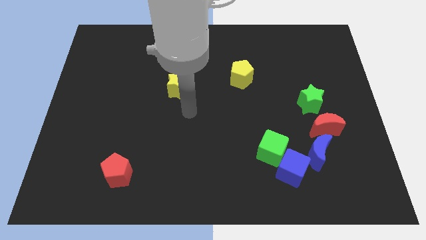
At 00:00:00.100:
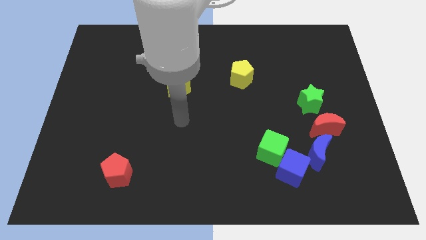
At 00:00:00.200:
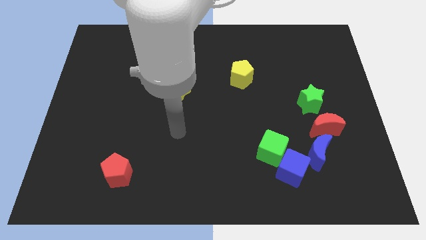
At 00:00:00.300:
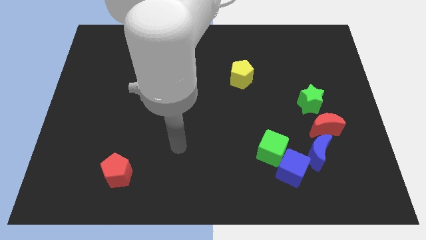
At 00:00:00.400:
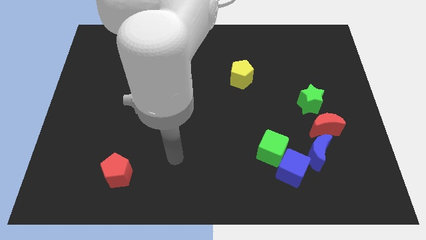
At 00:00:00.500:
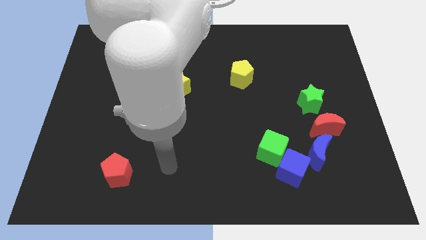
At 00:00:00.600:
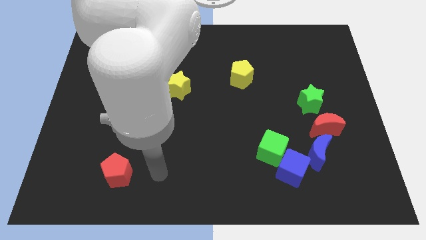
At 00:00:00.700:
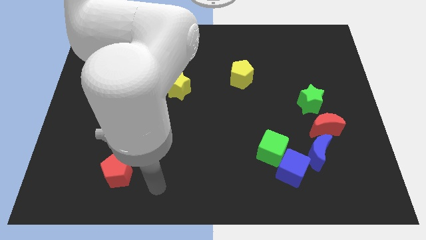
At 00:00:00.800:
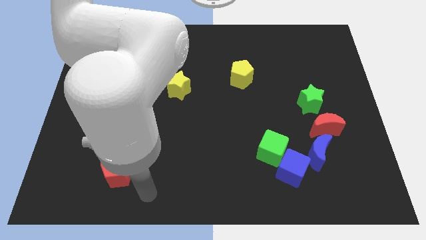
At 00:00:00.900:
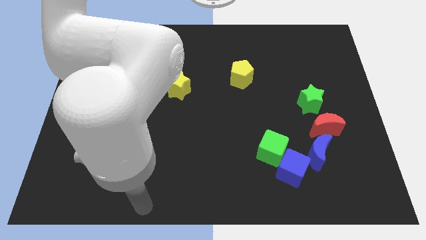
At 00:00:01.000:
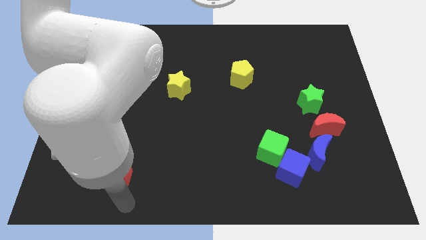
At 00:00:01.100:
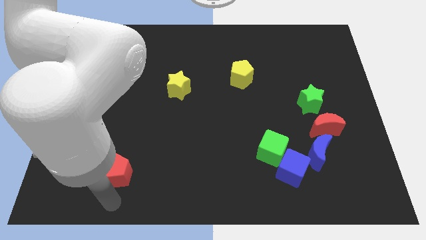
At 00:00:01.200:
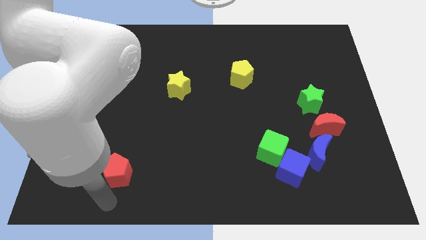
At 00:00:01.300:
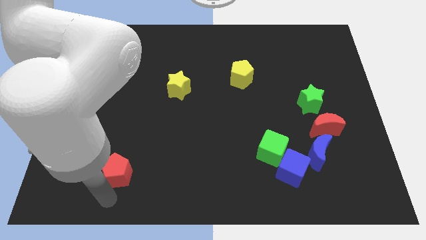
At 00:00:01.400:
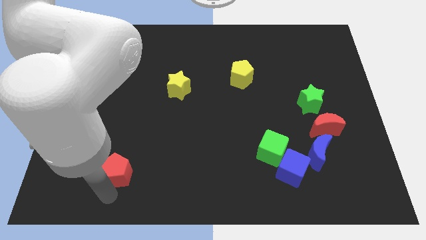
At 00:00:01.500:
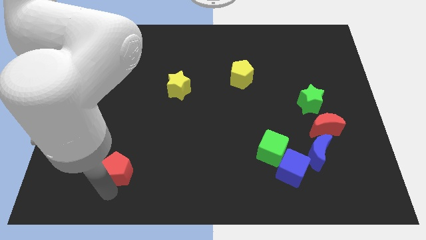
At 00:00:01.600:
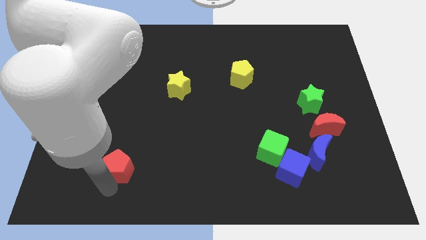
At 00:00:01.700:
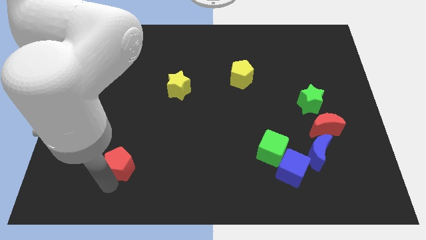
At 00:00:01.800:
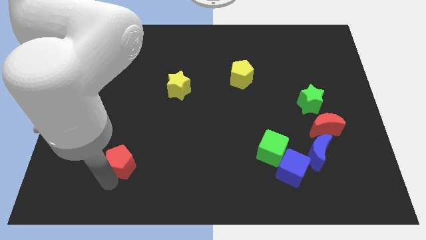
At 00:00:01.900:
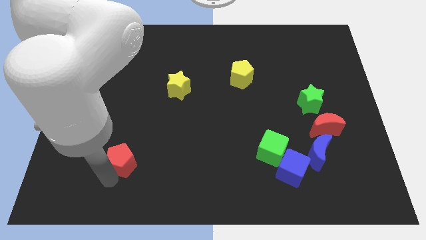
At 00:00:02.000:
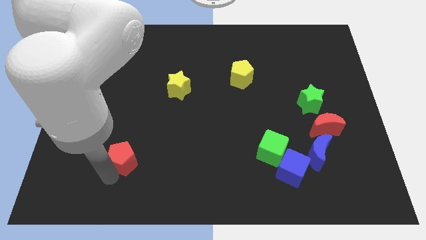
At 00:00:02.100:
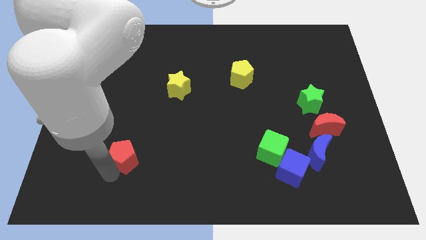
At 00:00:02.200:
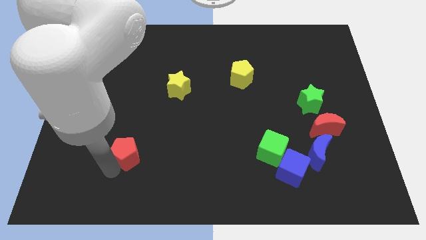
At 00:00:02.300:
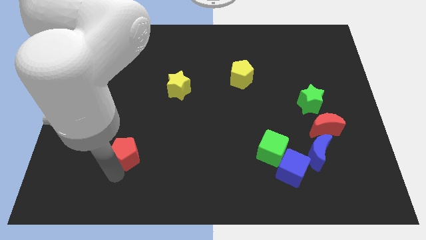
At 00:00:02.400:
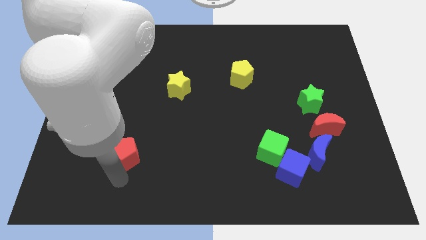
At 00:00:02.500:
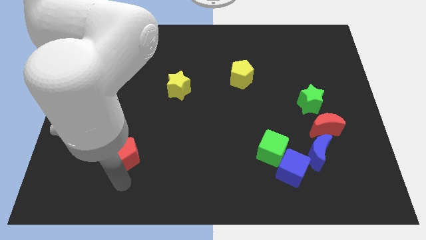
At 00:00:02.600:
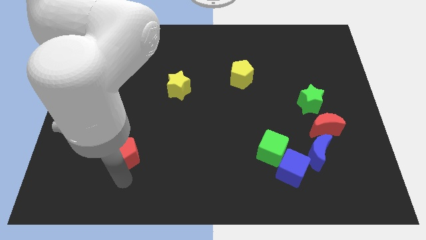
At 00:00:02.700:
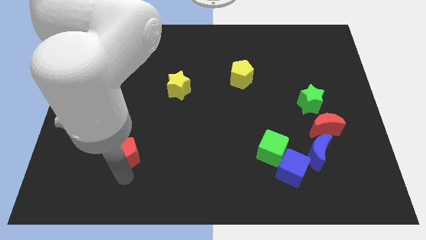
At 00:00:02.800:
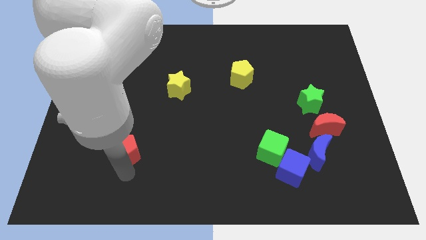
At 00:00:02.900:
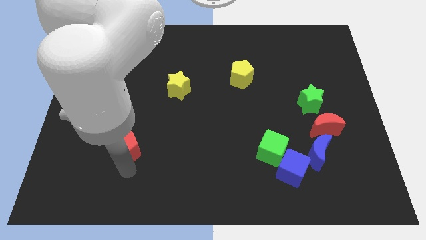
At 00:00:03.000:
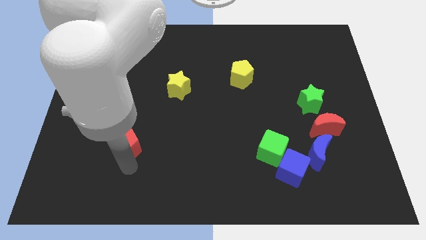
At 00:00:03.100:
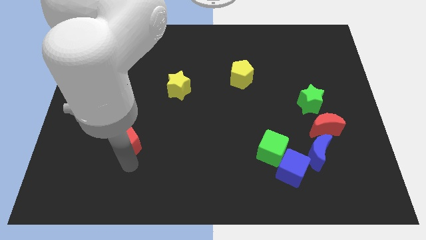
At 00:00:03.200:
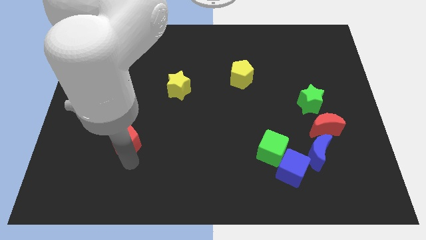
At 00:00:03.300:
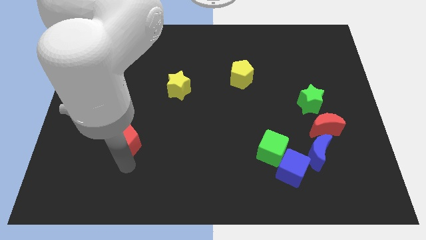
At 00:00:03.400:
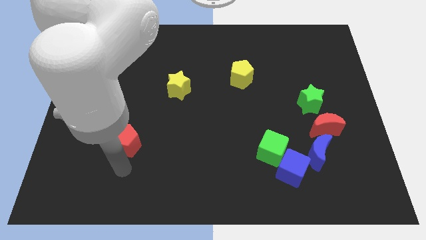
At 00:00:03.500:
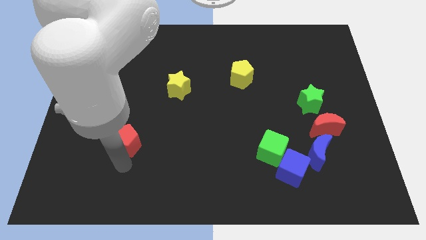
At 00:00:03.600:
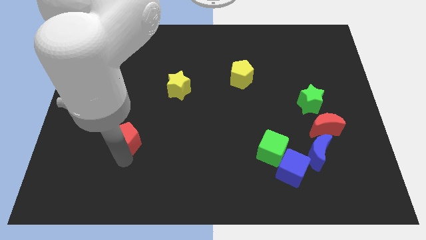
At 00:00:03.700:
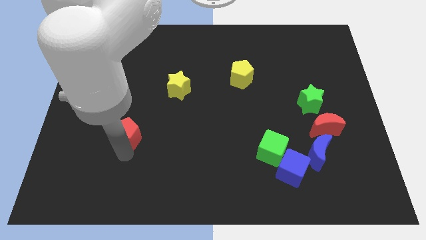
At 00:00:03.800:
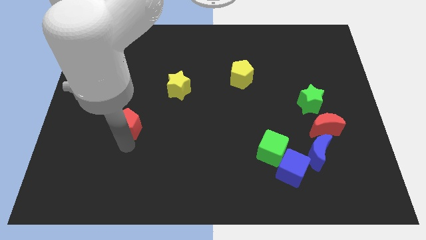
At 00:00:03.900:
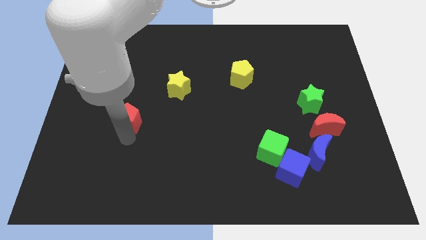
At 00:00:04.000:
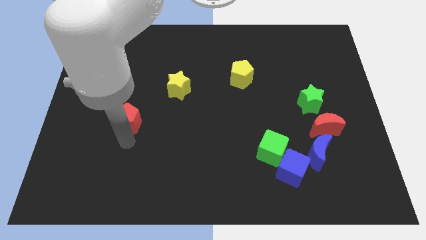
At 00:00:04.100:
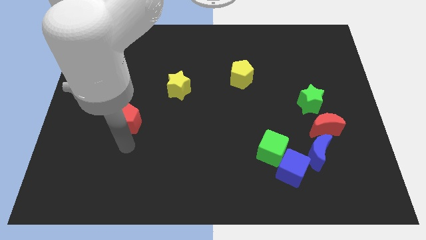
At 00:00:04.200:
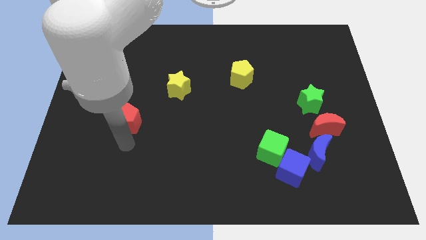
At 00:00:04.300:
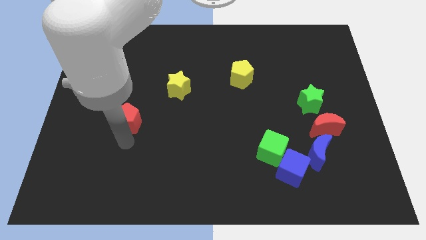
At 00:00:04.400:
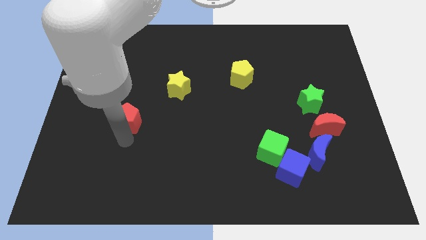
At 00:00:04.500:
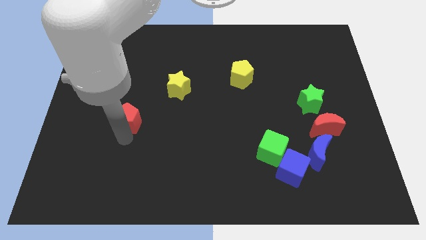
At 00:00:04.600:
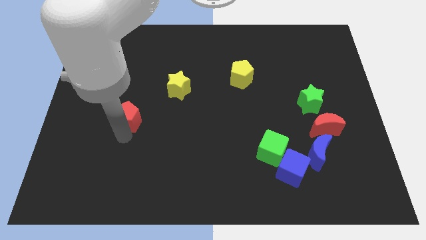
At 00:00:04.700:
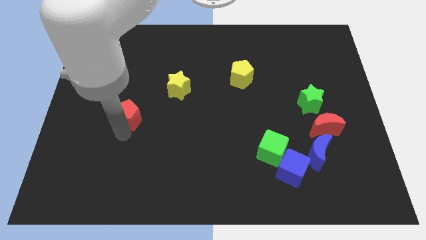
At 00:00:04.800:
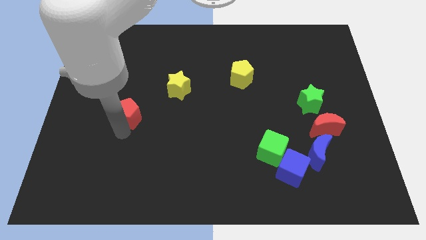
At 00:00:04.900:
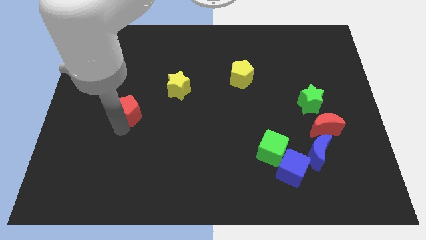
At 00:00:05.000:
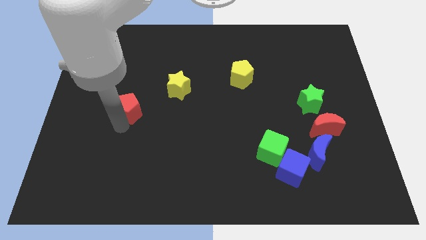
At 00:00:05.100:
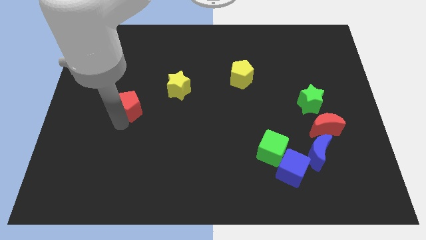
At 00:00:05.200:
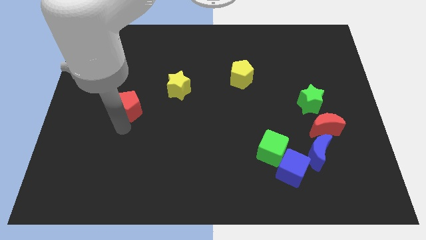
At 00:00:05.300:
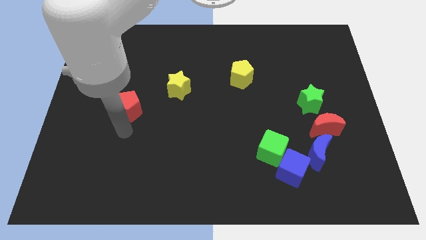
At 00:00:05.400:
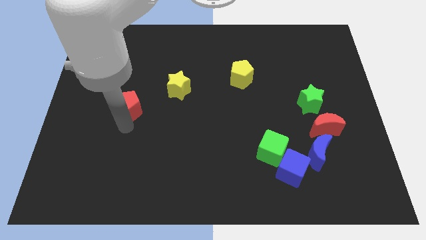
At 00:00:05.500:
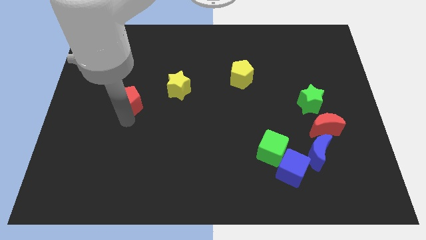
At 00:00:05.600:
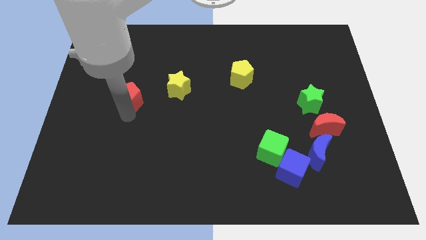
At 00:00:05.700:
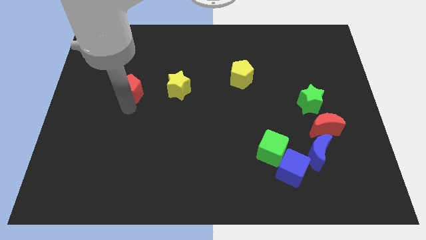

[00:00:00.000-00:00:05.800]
slide the red pentagon upwards

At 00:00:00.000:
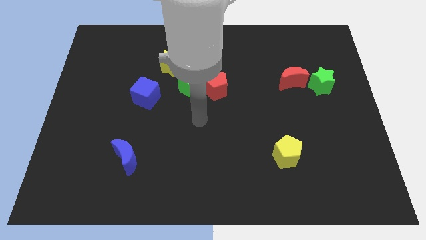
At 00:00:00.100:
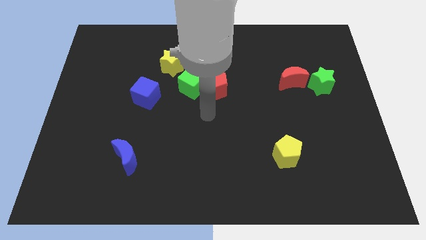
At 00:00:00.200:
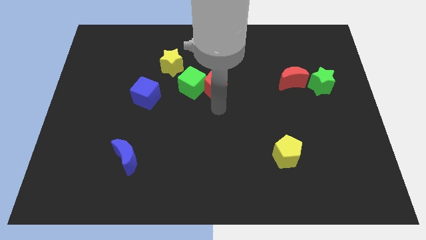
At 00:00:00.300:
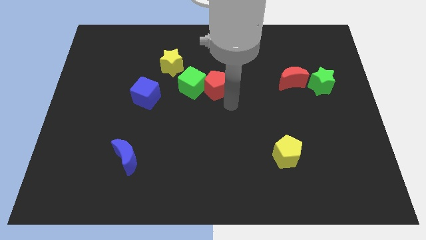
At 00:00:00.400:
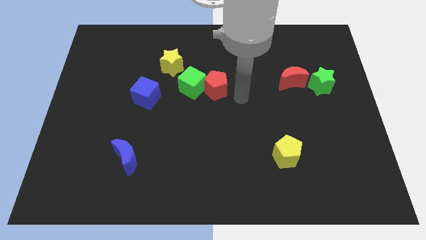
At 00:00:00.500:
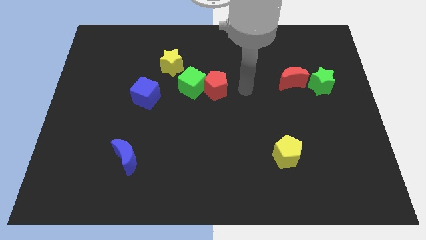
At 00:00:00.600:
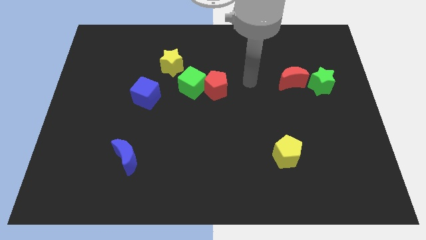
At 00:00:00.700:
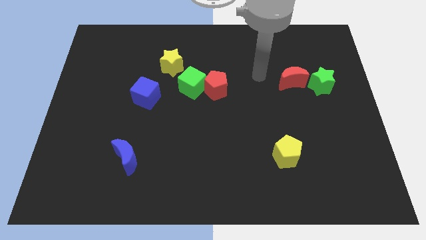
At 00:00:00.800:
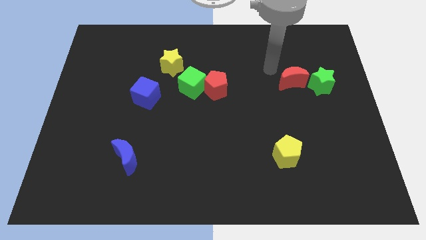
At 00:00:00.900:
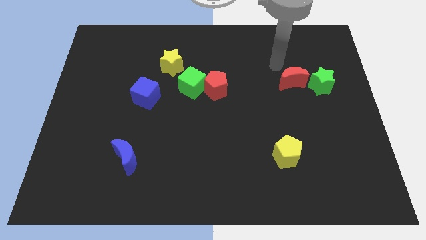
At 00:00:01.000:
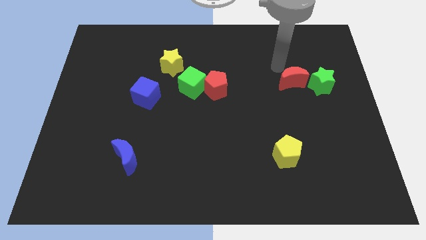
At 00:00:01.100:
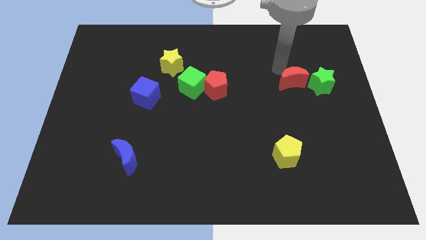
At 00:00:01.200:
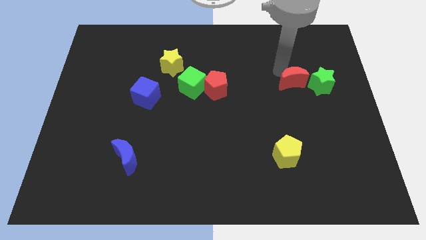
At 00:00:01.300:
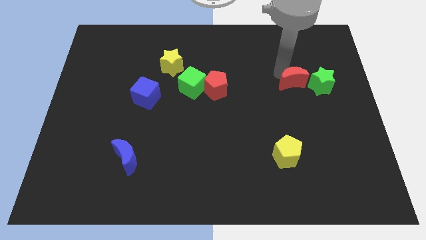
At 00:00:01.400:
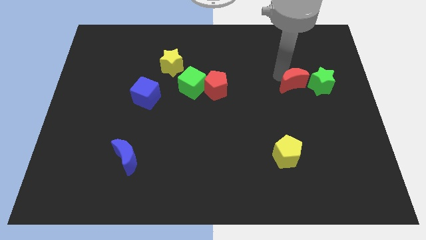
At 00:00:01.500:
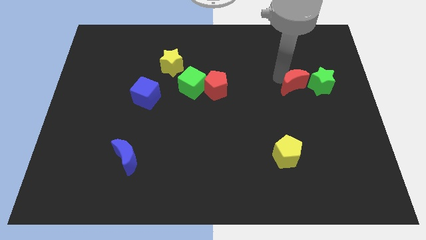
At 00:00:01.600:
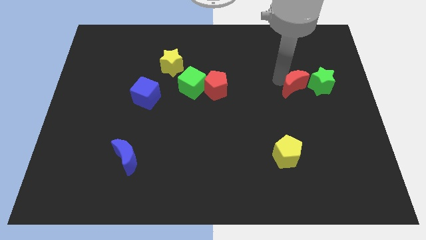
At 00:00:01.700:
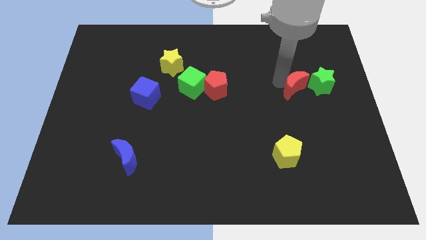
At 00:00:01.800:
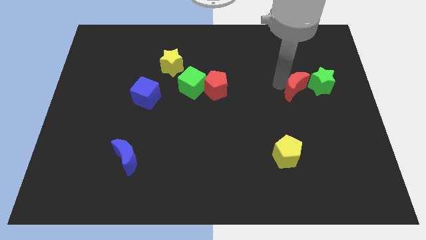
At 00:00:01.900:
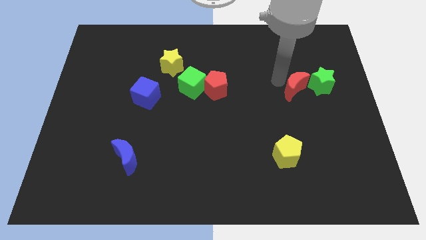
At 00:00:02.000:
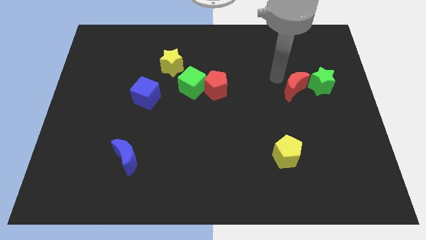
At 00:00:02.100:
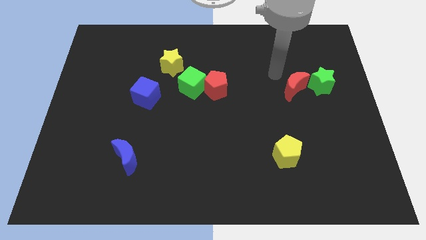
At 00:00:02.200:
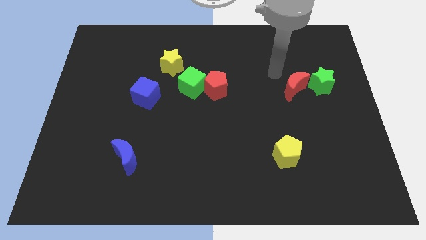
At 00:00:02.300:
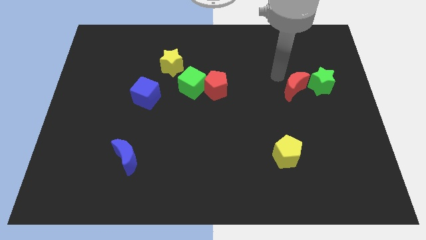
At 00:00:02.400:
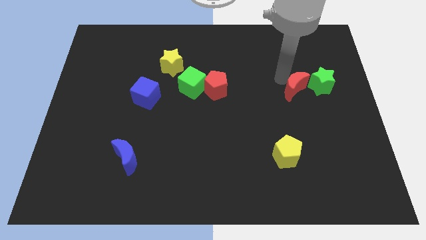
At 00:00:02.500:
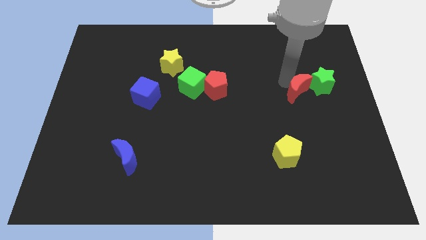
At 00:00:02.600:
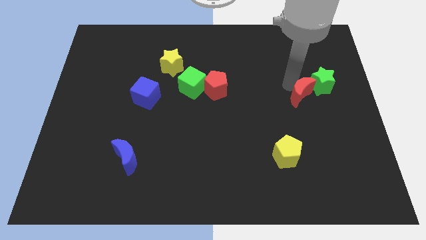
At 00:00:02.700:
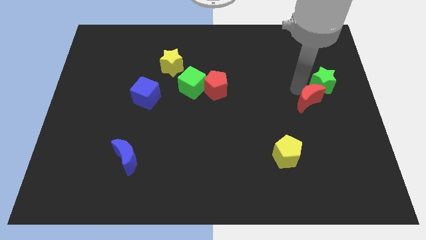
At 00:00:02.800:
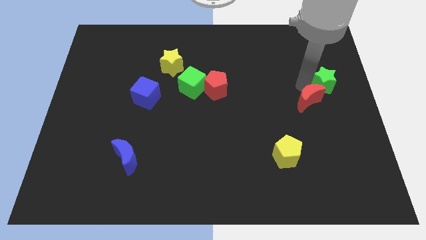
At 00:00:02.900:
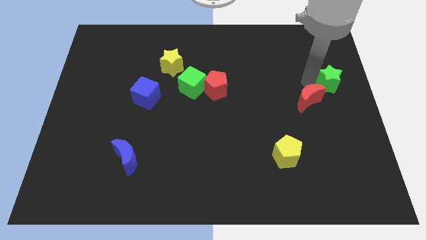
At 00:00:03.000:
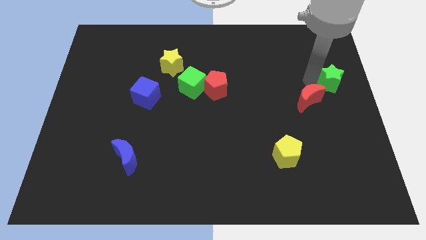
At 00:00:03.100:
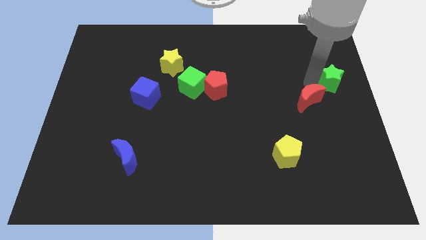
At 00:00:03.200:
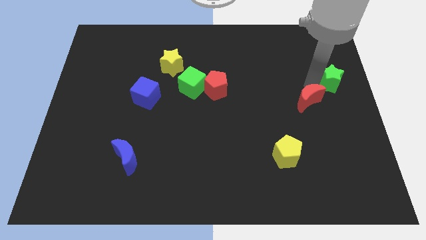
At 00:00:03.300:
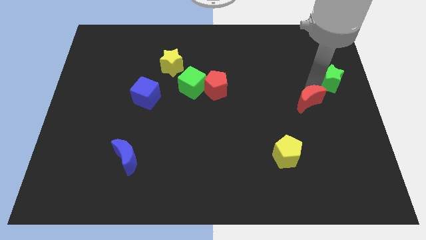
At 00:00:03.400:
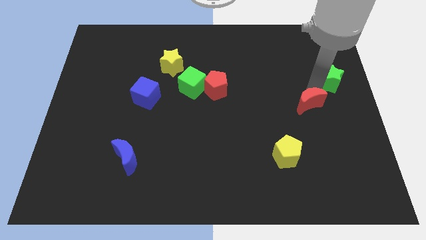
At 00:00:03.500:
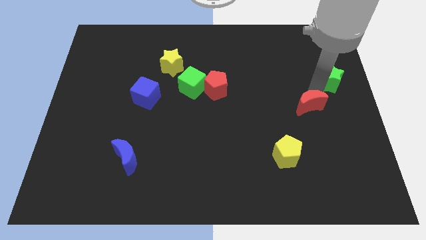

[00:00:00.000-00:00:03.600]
push the red moon a little bit downwards
